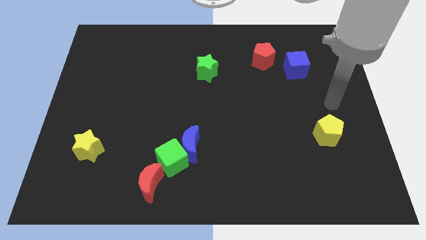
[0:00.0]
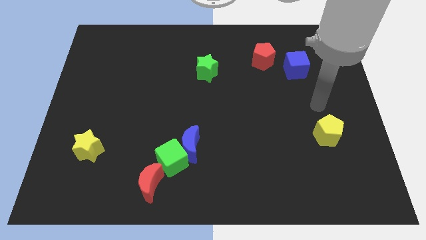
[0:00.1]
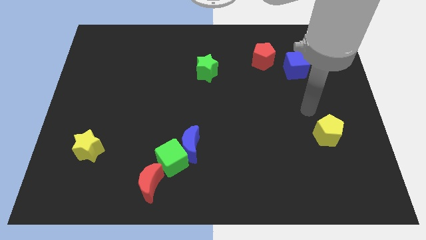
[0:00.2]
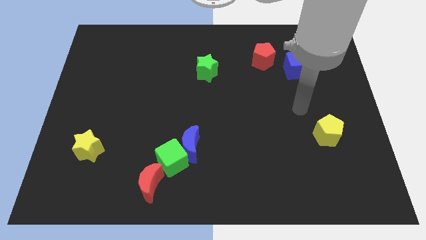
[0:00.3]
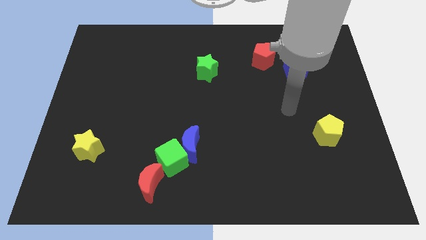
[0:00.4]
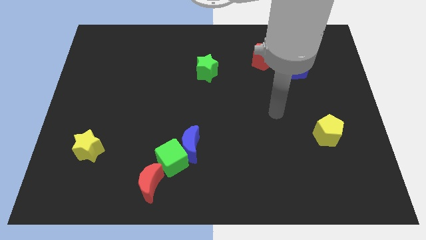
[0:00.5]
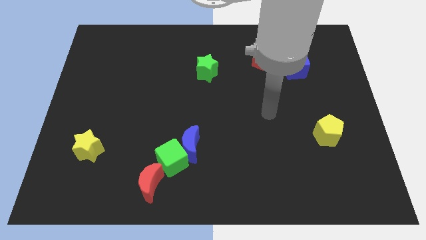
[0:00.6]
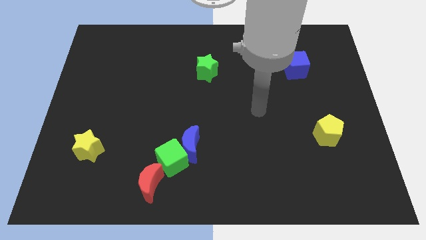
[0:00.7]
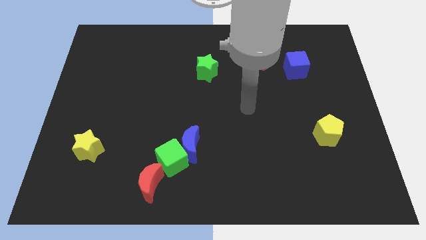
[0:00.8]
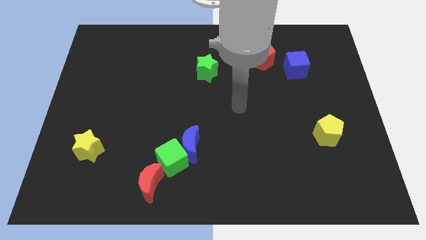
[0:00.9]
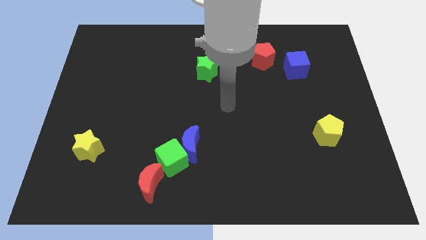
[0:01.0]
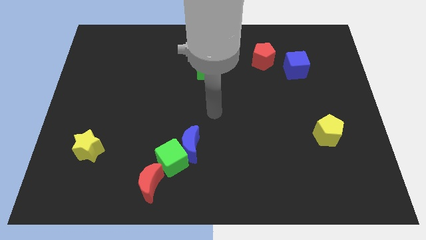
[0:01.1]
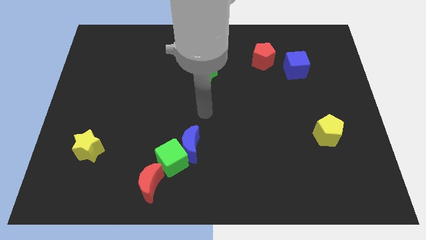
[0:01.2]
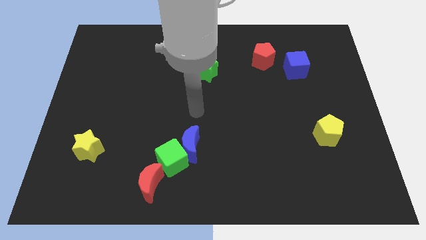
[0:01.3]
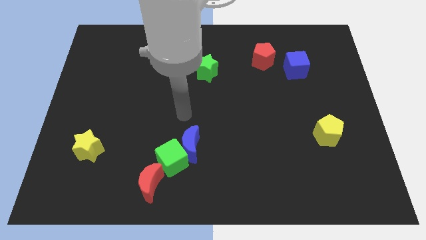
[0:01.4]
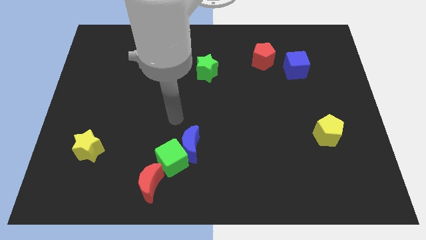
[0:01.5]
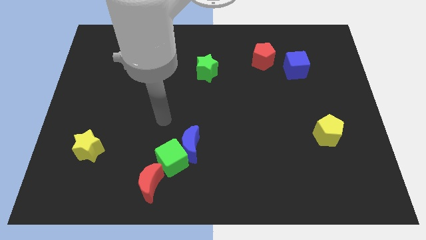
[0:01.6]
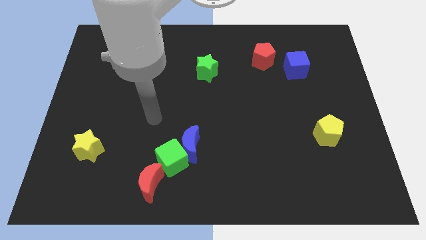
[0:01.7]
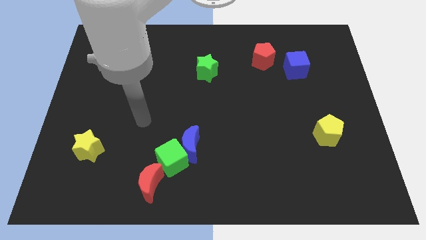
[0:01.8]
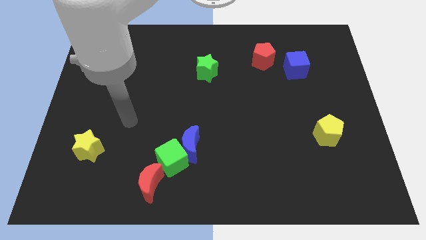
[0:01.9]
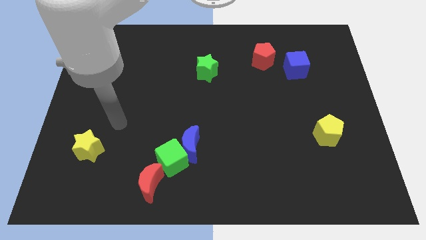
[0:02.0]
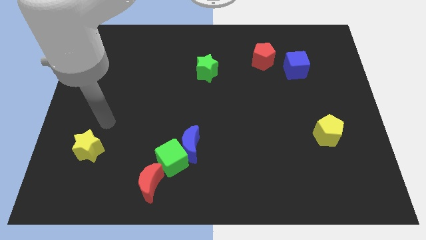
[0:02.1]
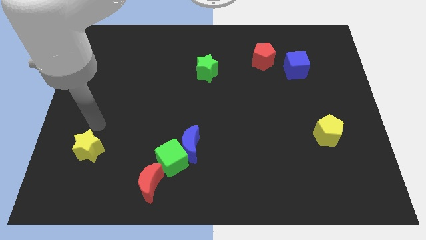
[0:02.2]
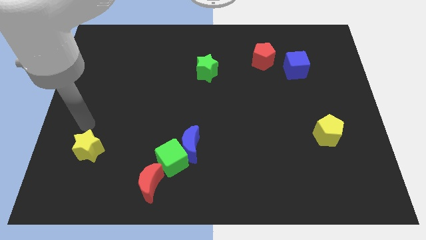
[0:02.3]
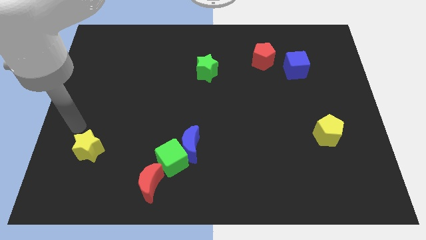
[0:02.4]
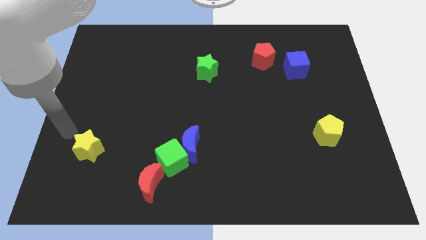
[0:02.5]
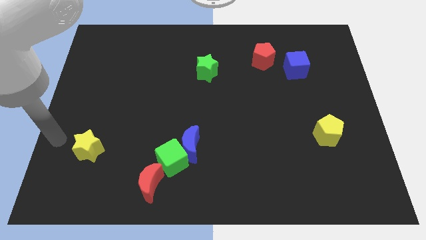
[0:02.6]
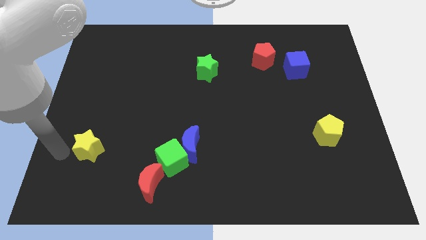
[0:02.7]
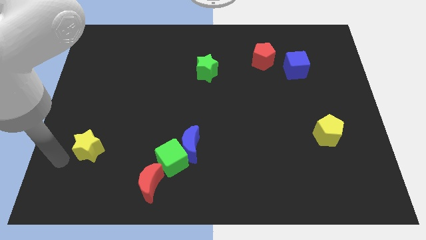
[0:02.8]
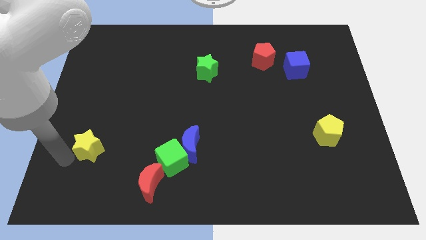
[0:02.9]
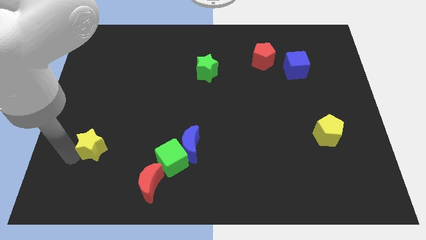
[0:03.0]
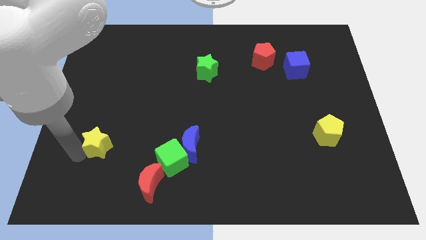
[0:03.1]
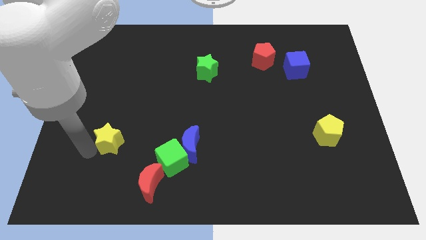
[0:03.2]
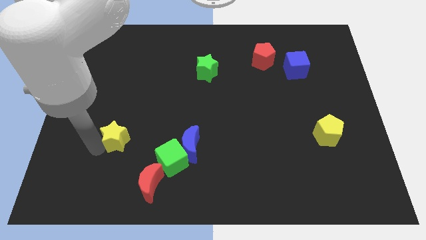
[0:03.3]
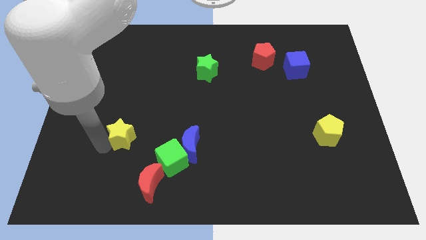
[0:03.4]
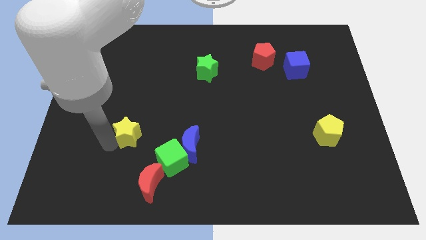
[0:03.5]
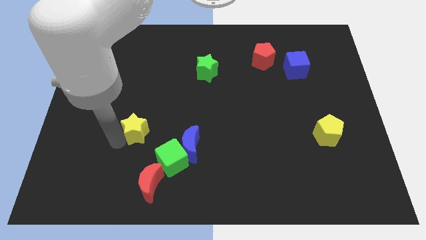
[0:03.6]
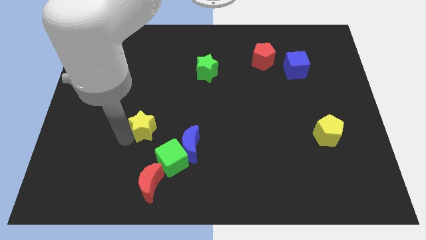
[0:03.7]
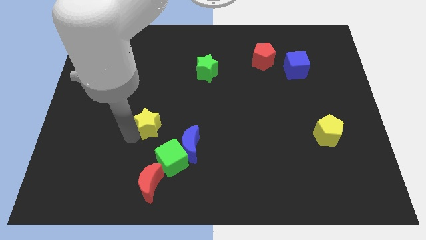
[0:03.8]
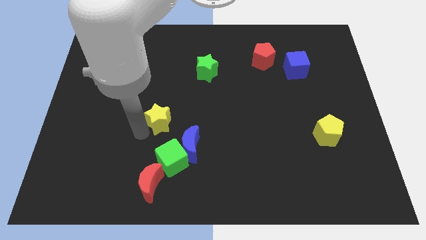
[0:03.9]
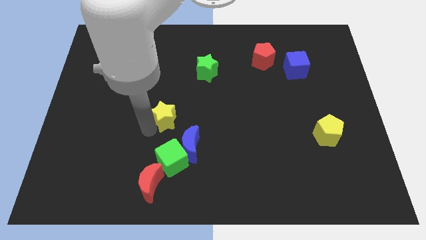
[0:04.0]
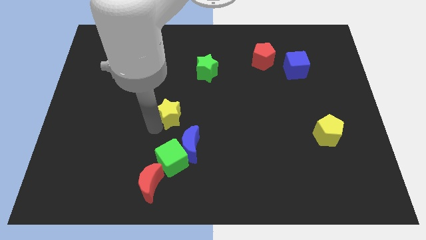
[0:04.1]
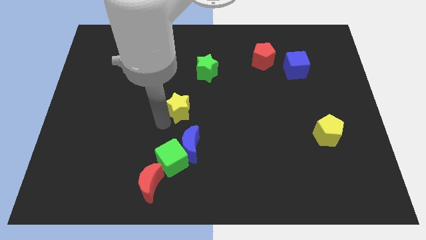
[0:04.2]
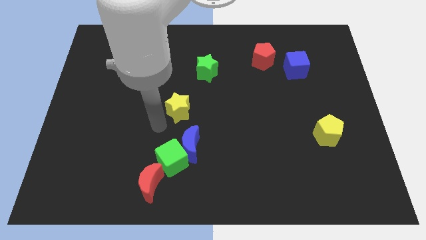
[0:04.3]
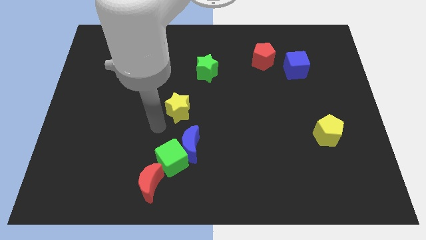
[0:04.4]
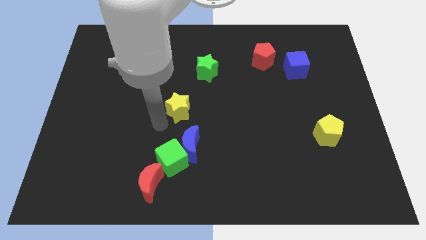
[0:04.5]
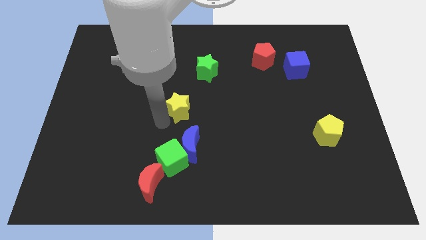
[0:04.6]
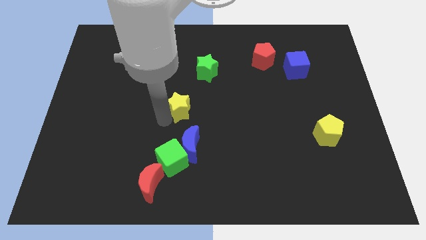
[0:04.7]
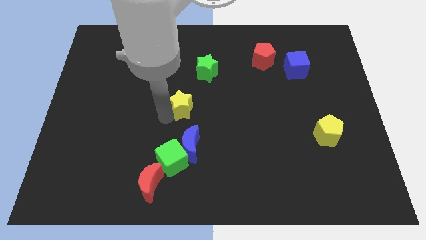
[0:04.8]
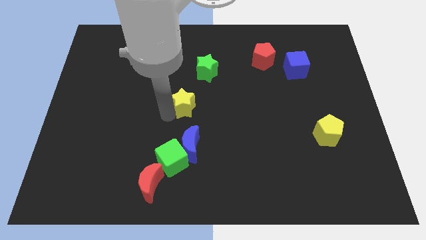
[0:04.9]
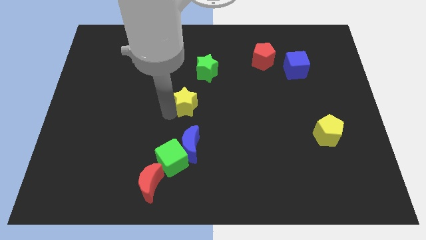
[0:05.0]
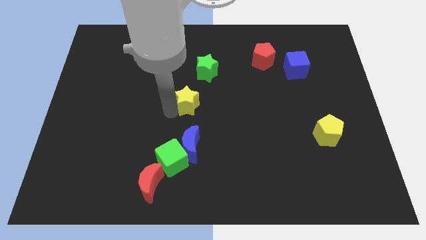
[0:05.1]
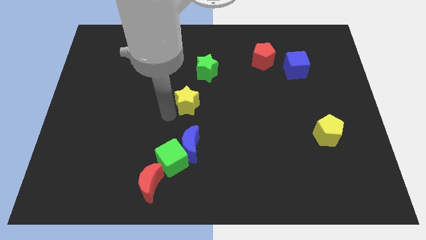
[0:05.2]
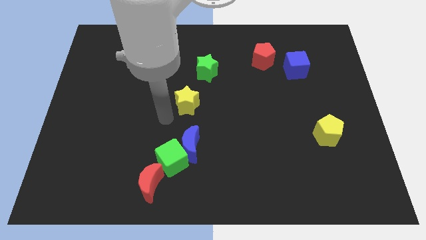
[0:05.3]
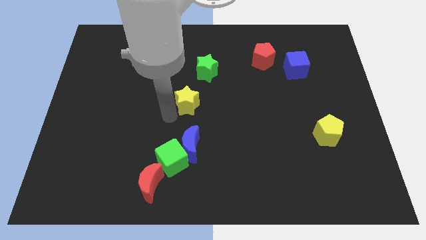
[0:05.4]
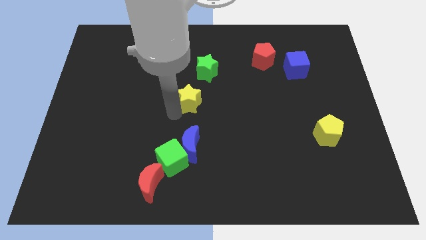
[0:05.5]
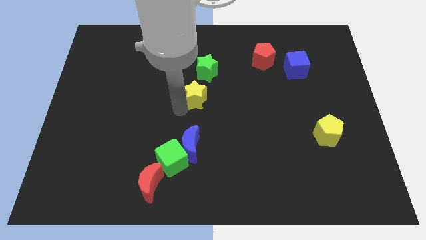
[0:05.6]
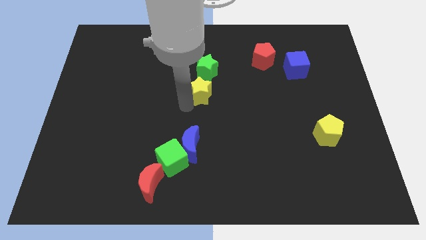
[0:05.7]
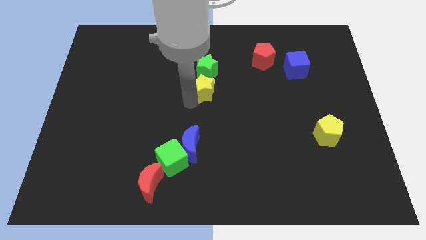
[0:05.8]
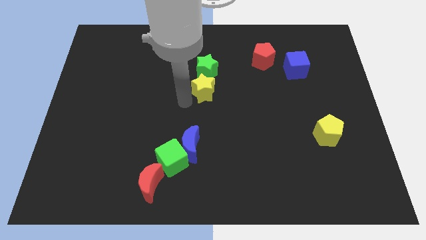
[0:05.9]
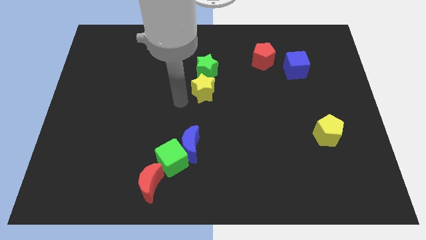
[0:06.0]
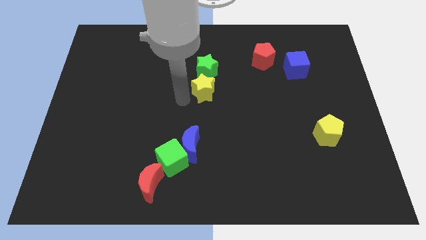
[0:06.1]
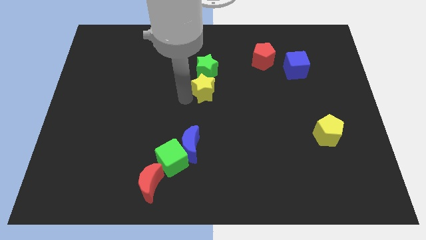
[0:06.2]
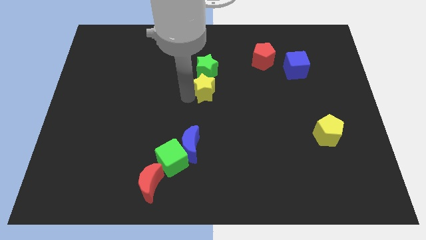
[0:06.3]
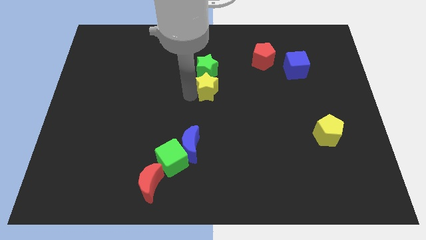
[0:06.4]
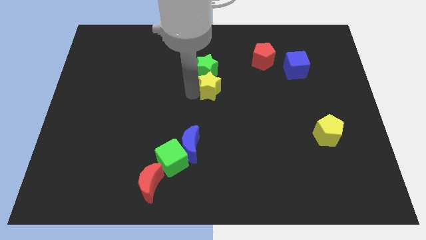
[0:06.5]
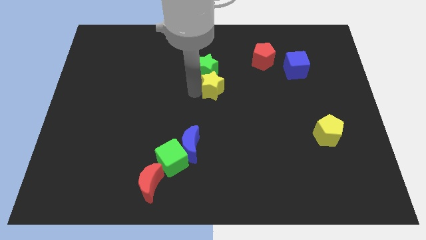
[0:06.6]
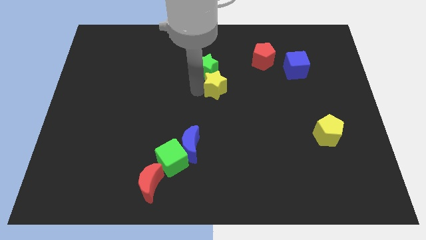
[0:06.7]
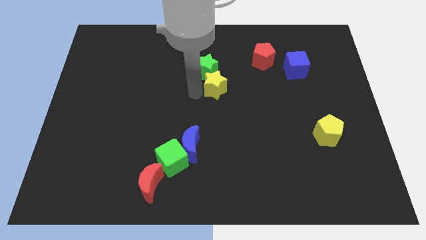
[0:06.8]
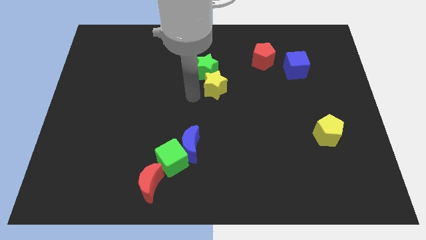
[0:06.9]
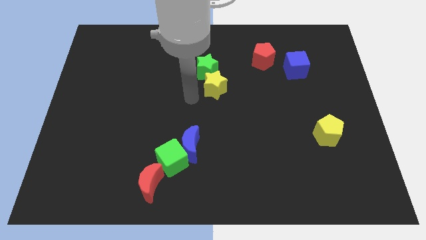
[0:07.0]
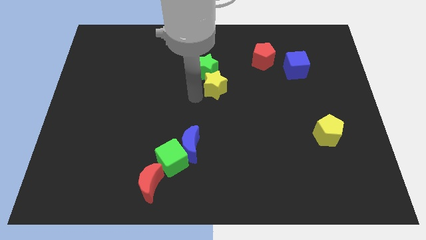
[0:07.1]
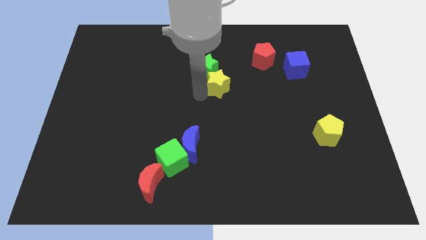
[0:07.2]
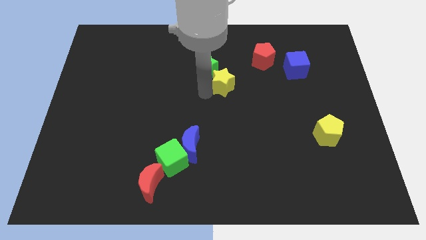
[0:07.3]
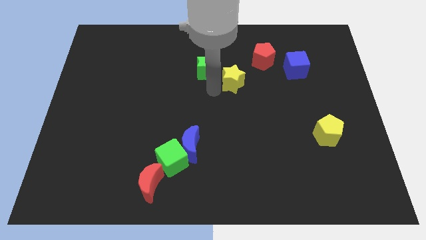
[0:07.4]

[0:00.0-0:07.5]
slide the yellow star right of the green star
